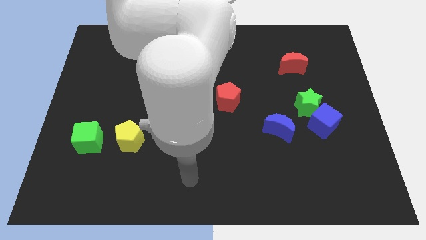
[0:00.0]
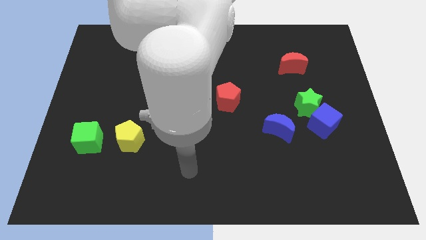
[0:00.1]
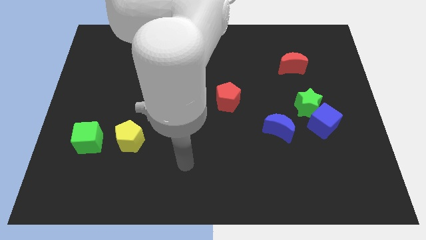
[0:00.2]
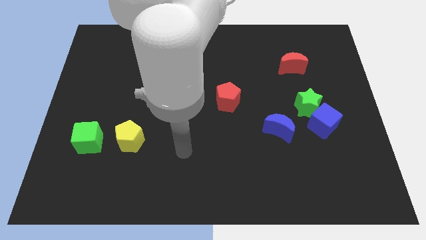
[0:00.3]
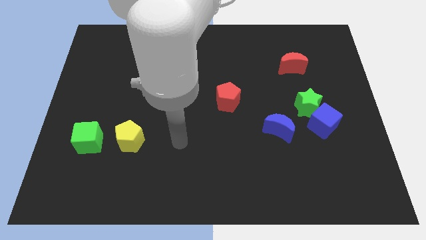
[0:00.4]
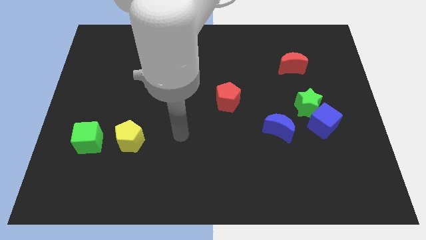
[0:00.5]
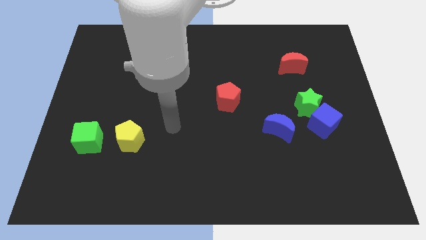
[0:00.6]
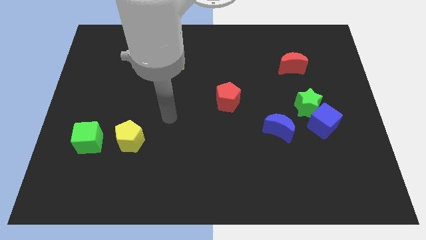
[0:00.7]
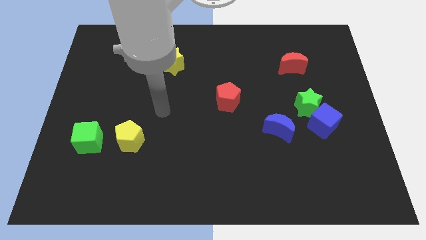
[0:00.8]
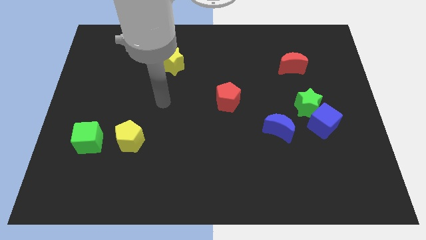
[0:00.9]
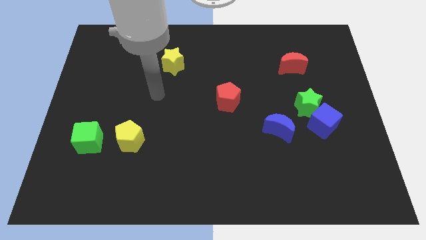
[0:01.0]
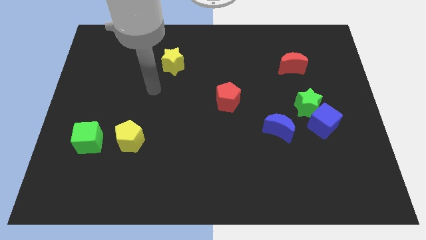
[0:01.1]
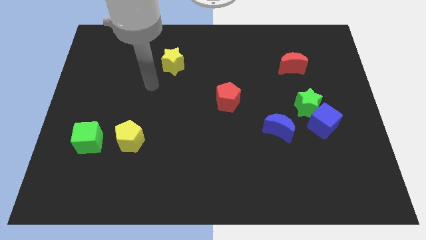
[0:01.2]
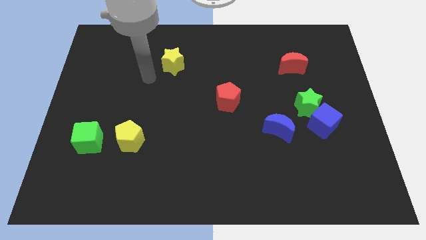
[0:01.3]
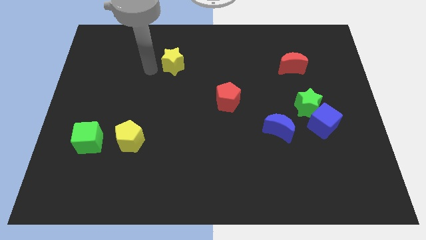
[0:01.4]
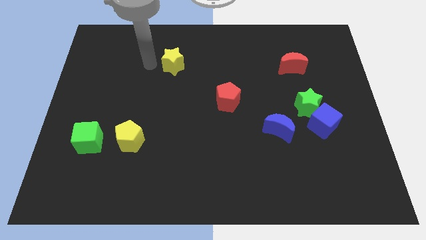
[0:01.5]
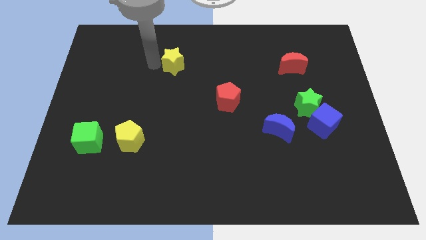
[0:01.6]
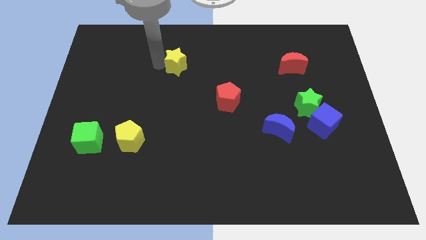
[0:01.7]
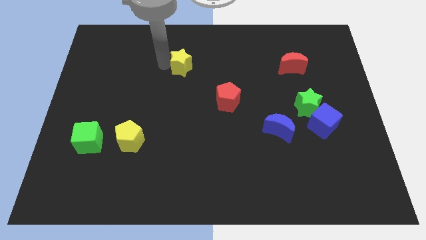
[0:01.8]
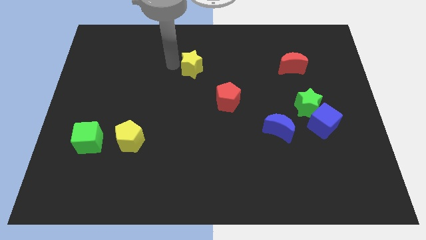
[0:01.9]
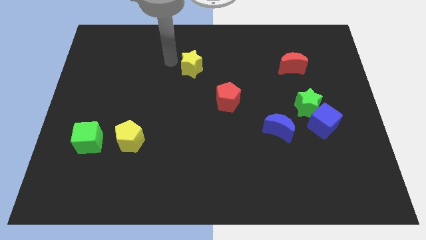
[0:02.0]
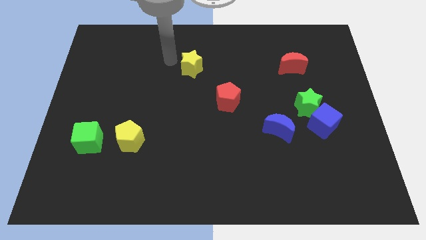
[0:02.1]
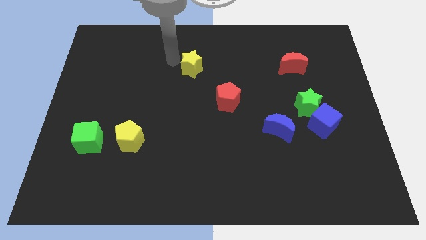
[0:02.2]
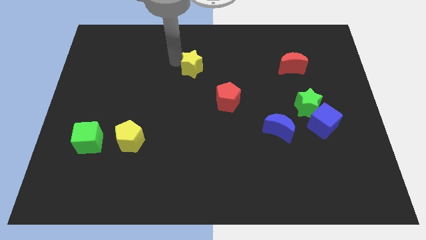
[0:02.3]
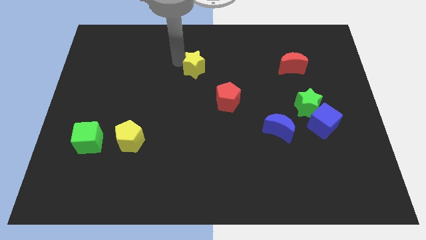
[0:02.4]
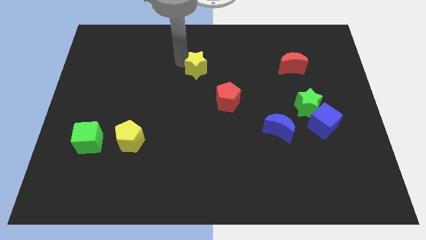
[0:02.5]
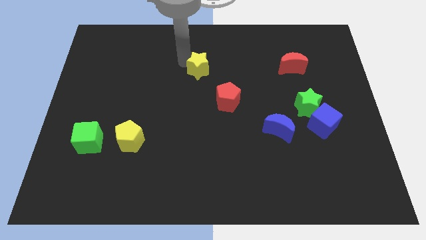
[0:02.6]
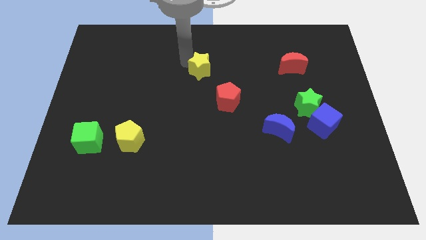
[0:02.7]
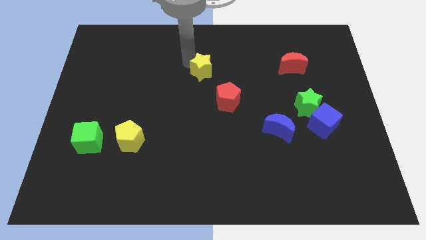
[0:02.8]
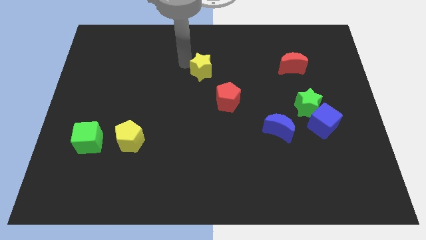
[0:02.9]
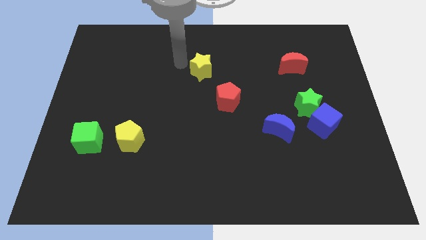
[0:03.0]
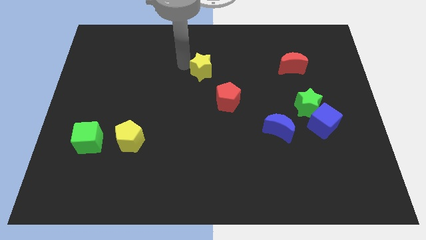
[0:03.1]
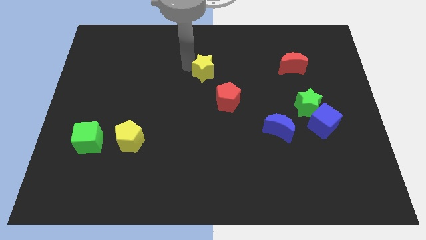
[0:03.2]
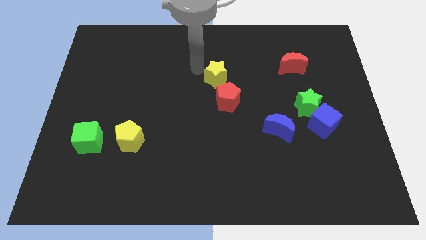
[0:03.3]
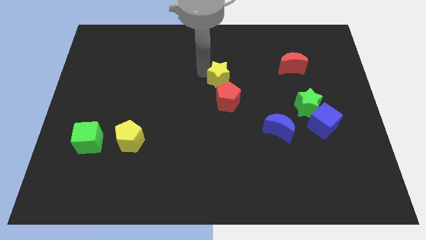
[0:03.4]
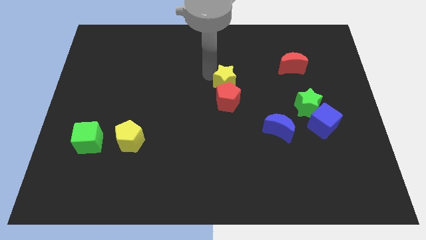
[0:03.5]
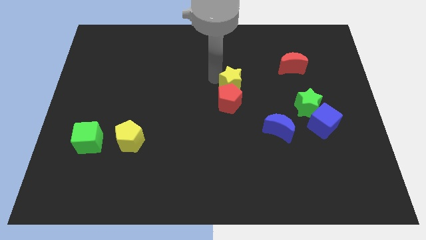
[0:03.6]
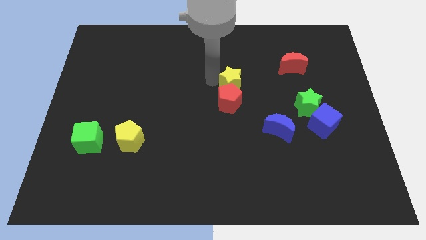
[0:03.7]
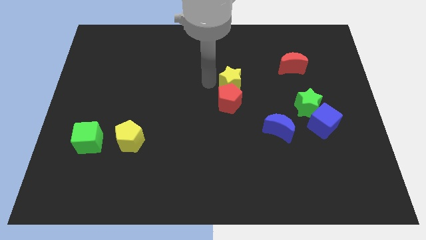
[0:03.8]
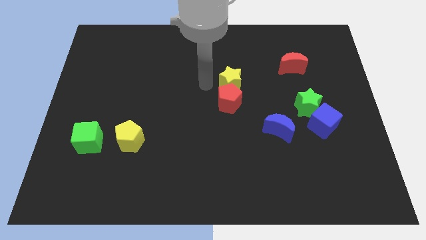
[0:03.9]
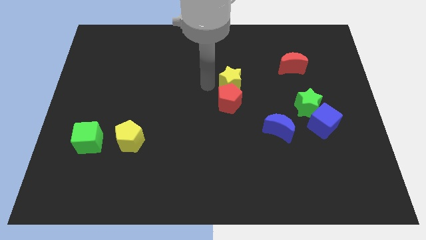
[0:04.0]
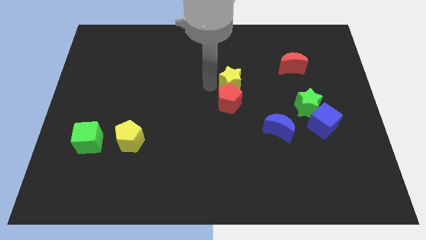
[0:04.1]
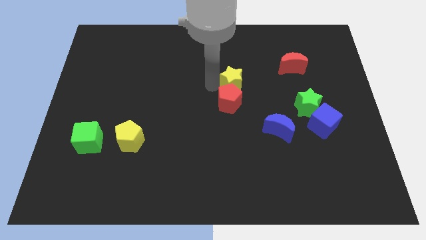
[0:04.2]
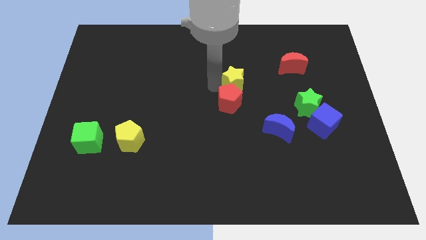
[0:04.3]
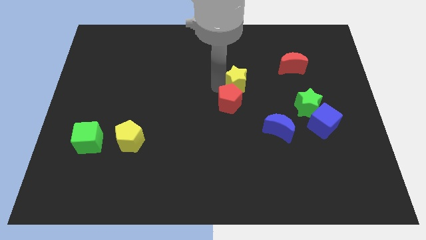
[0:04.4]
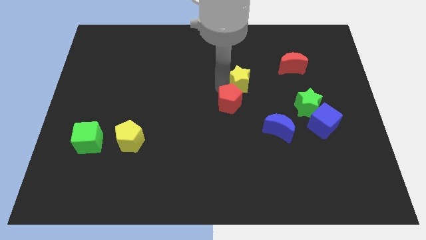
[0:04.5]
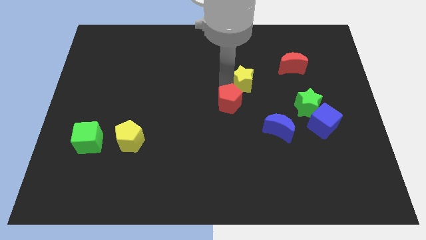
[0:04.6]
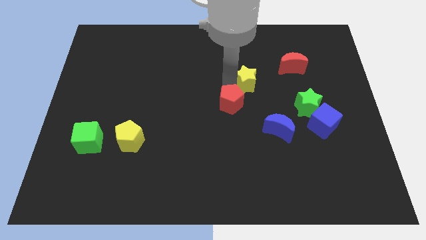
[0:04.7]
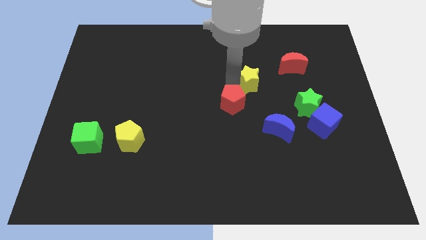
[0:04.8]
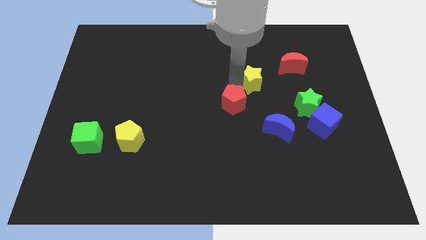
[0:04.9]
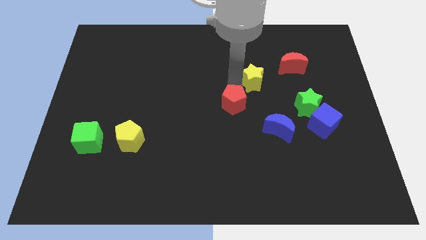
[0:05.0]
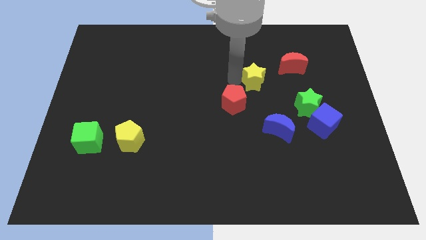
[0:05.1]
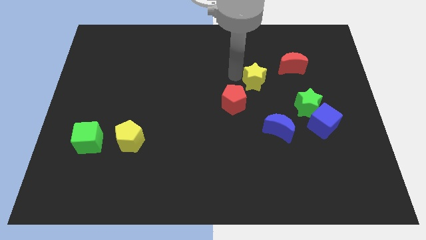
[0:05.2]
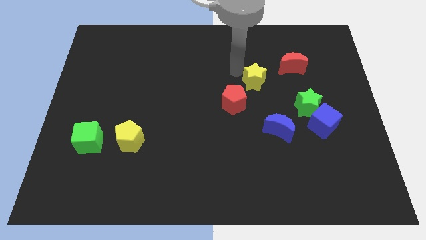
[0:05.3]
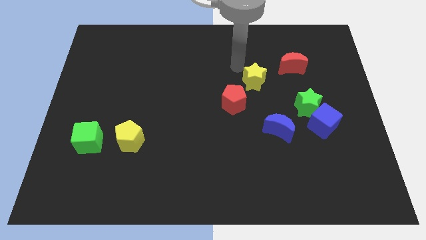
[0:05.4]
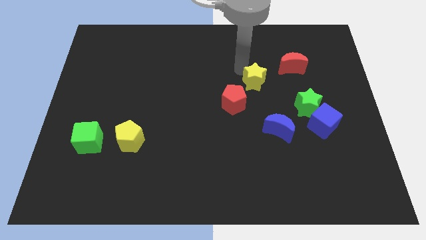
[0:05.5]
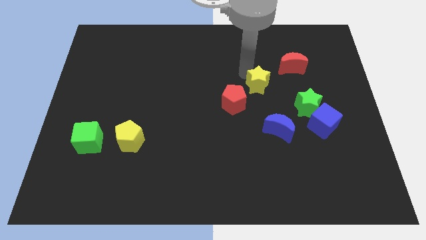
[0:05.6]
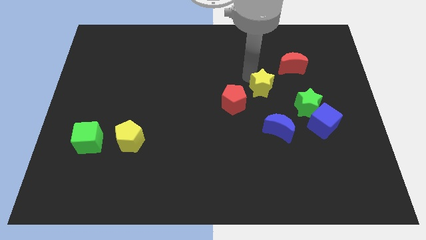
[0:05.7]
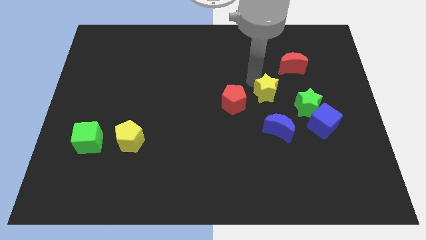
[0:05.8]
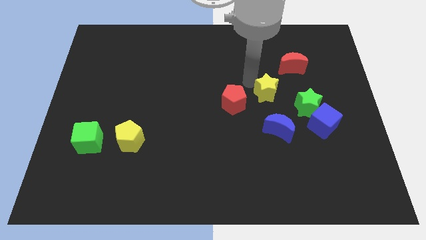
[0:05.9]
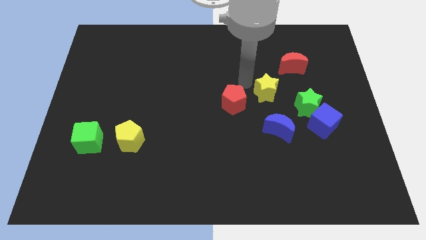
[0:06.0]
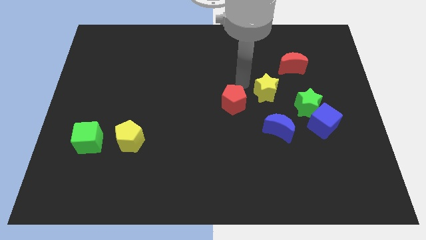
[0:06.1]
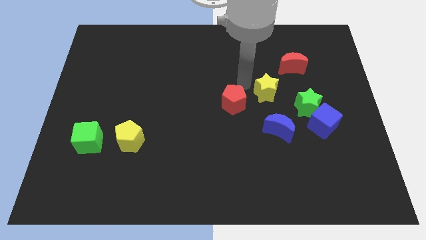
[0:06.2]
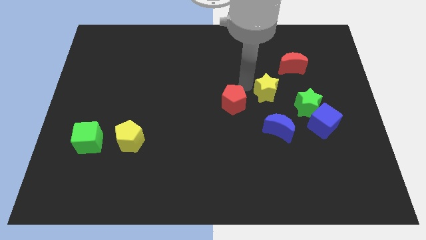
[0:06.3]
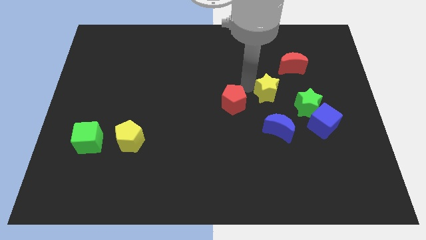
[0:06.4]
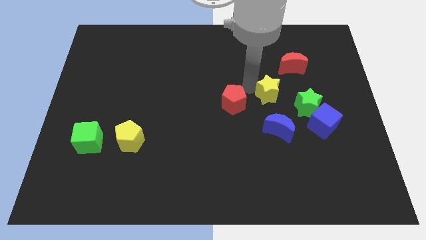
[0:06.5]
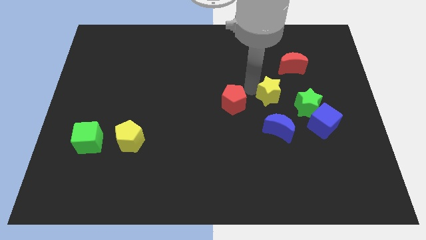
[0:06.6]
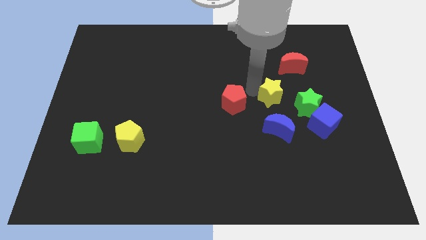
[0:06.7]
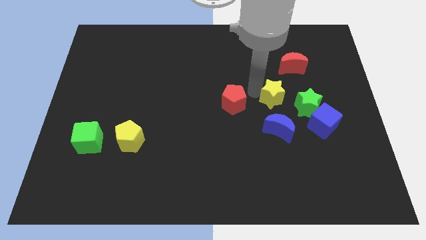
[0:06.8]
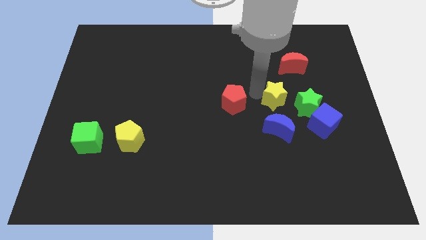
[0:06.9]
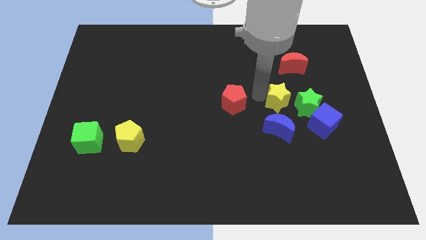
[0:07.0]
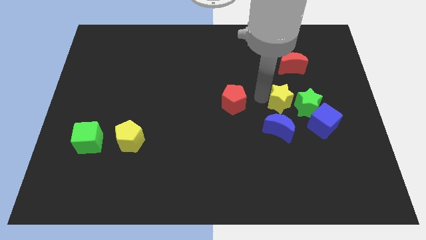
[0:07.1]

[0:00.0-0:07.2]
put the yellow star next to the green star
